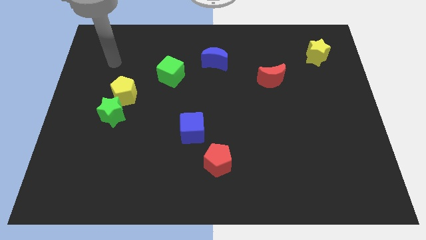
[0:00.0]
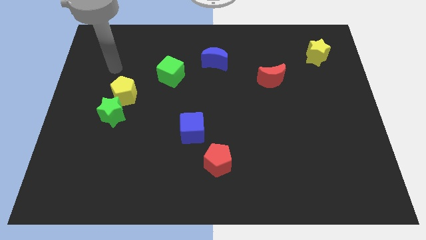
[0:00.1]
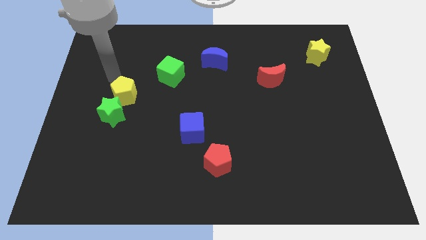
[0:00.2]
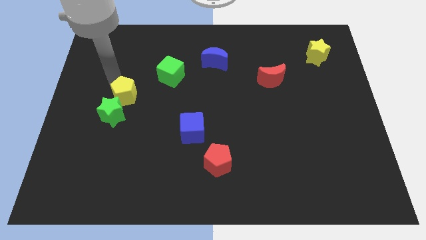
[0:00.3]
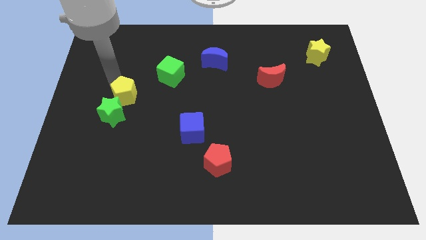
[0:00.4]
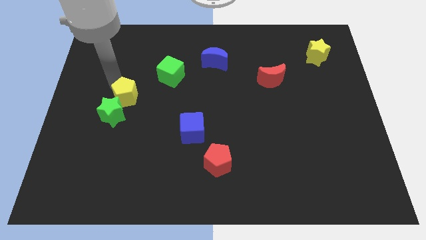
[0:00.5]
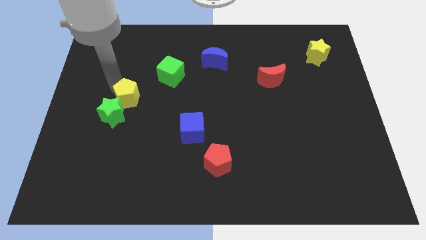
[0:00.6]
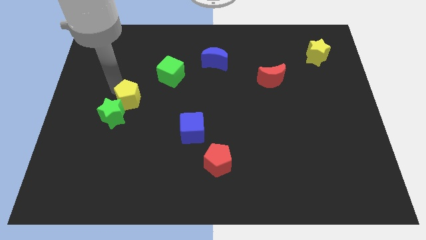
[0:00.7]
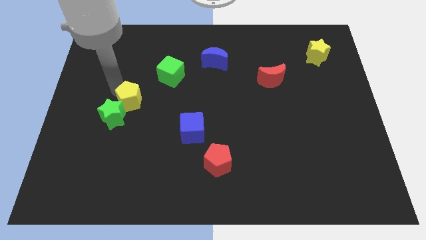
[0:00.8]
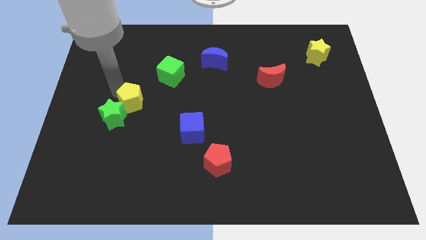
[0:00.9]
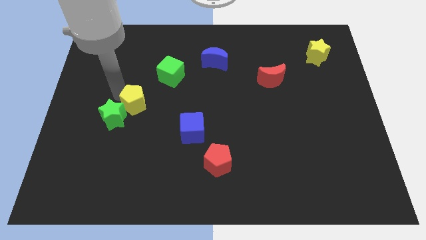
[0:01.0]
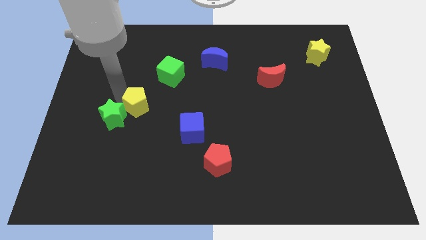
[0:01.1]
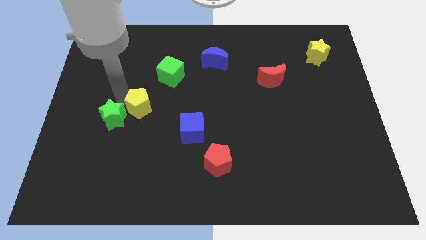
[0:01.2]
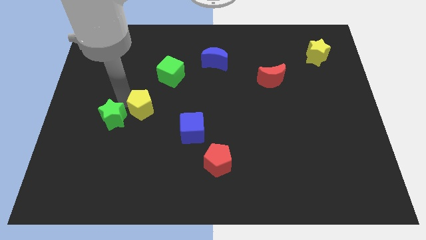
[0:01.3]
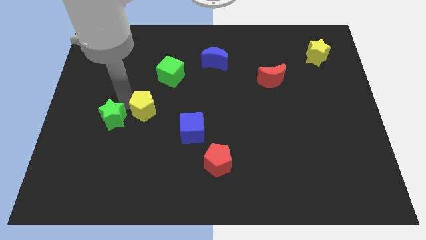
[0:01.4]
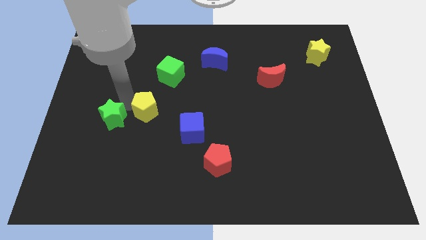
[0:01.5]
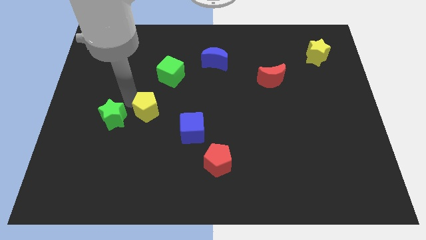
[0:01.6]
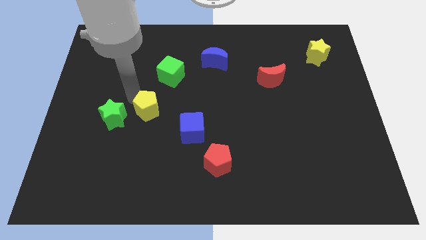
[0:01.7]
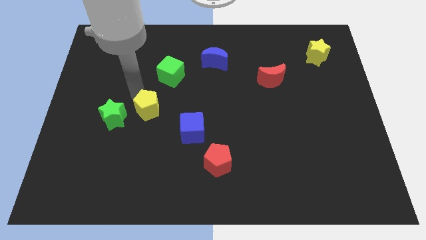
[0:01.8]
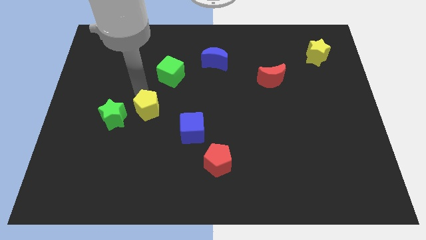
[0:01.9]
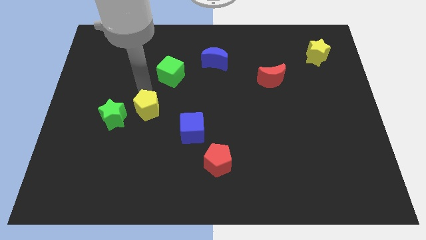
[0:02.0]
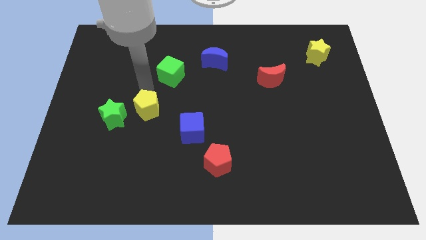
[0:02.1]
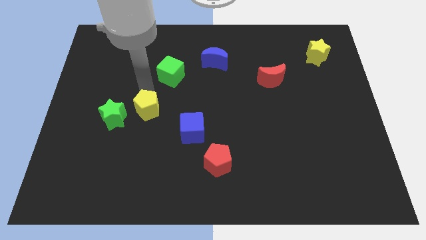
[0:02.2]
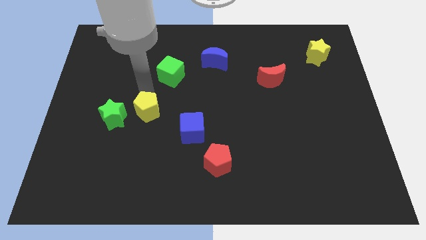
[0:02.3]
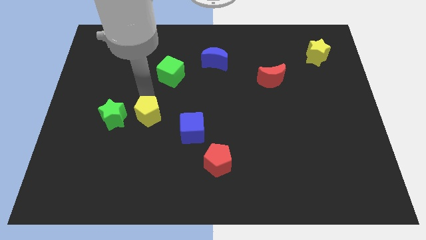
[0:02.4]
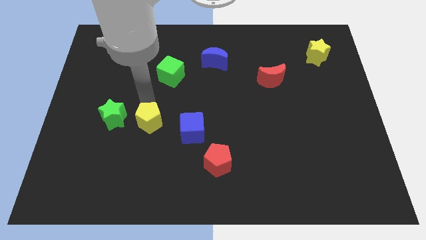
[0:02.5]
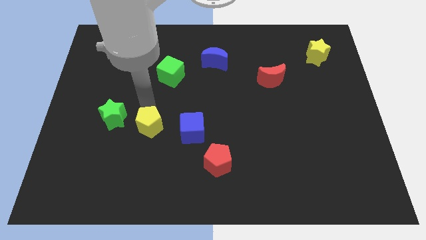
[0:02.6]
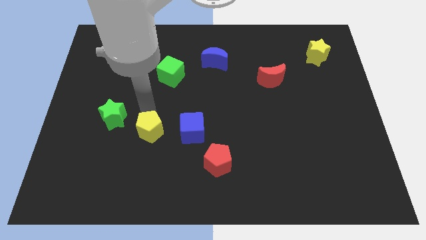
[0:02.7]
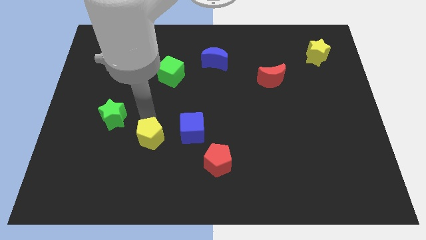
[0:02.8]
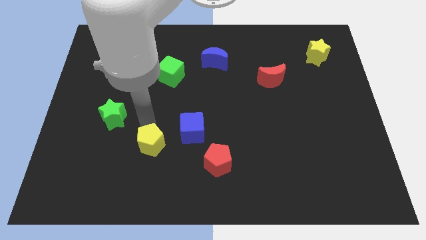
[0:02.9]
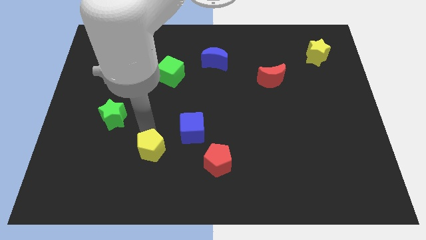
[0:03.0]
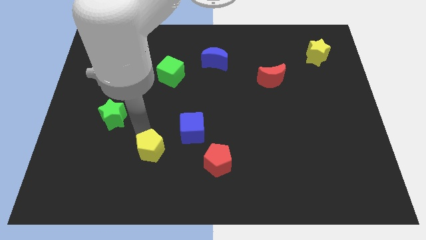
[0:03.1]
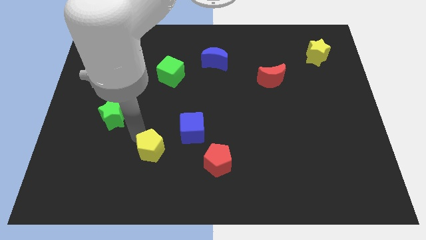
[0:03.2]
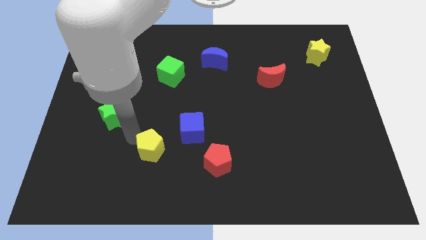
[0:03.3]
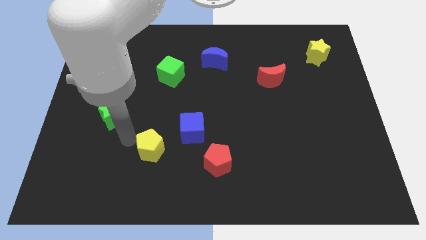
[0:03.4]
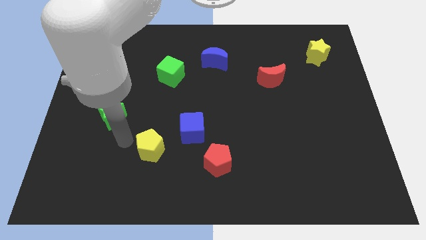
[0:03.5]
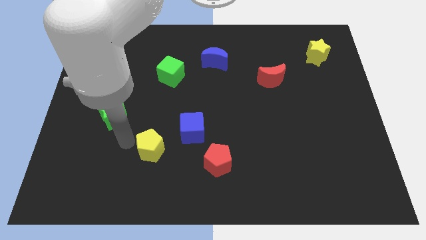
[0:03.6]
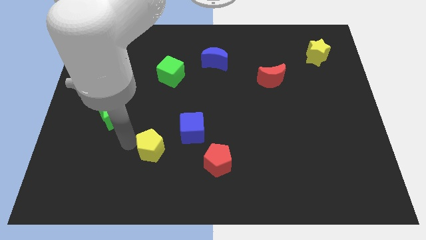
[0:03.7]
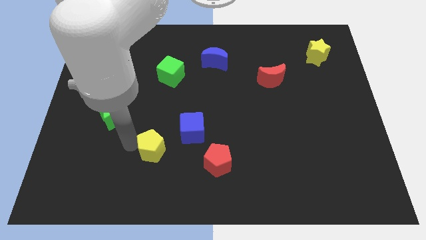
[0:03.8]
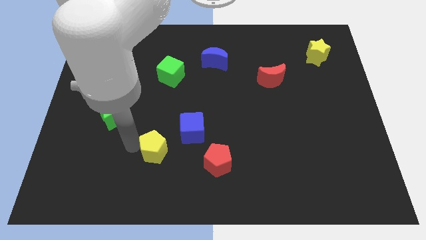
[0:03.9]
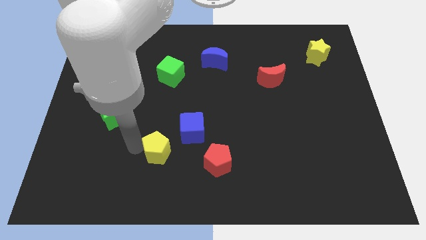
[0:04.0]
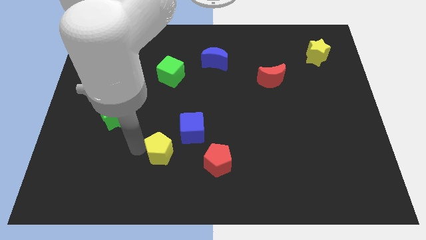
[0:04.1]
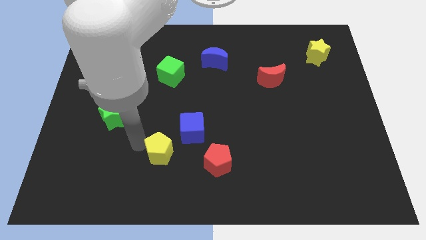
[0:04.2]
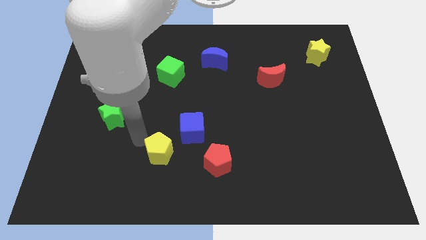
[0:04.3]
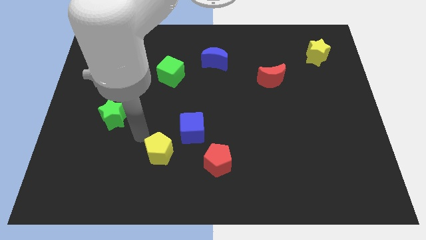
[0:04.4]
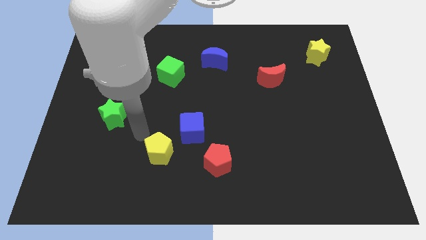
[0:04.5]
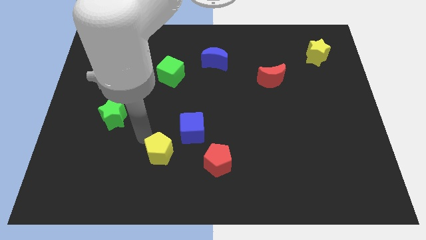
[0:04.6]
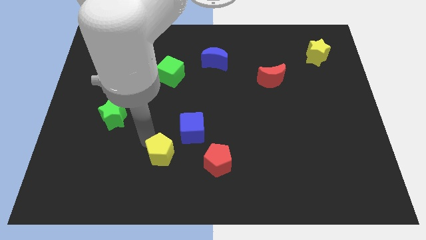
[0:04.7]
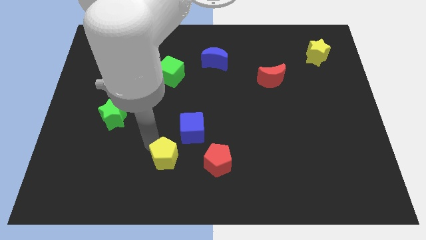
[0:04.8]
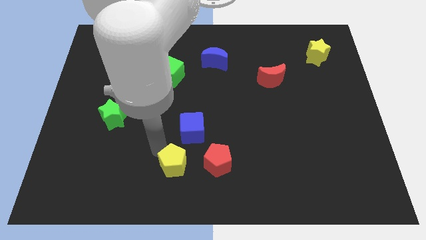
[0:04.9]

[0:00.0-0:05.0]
slide the yellow pentagon to the bottom
